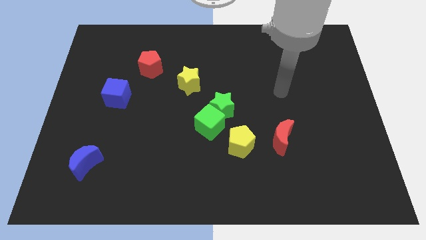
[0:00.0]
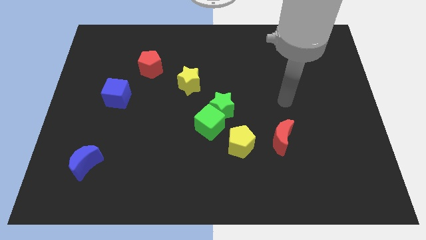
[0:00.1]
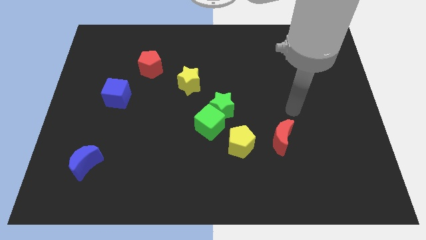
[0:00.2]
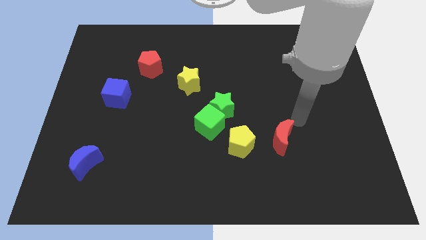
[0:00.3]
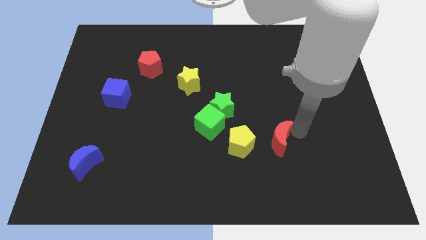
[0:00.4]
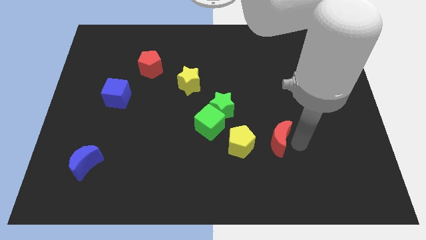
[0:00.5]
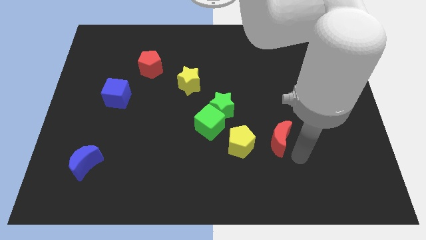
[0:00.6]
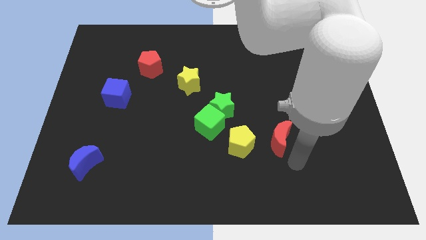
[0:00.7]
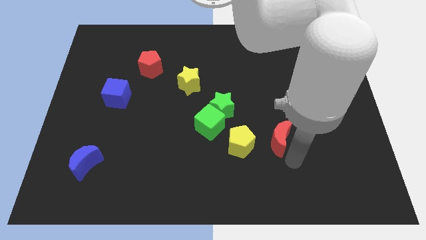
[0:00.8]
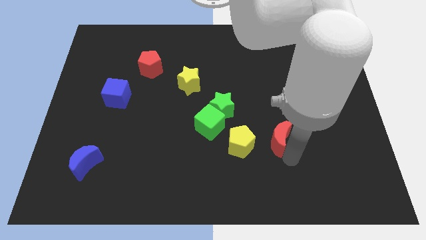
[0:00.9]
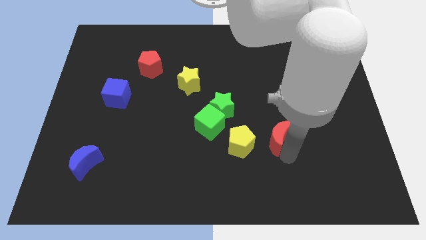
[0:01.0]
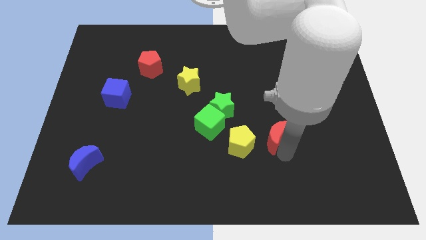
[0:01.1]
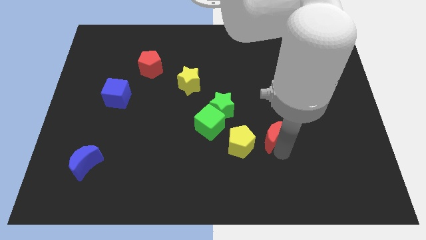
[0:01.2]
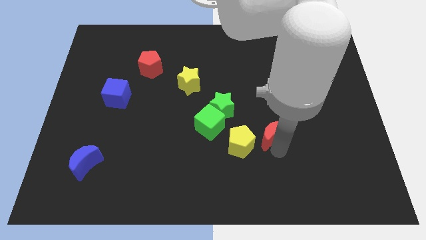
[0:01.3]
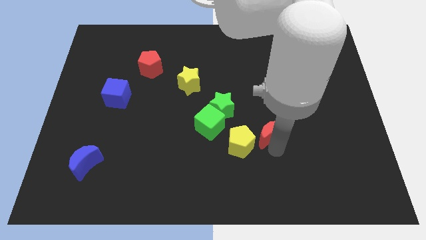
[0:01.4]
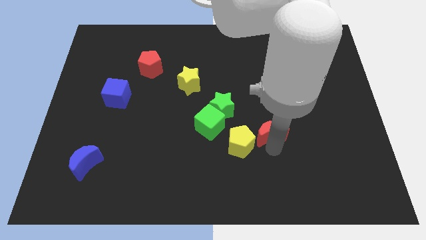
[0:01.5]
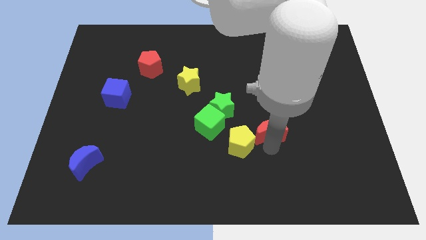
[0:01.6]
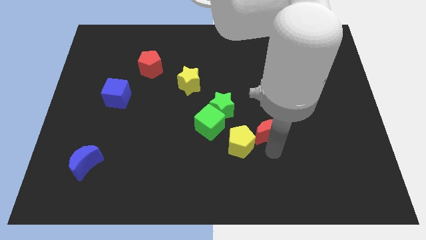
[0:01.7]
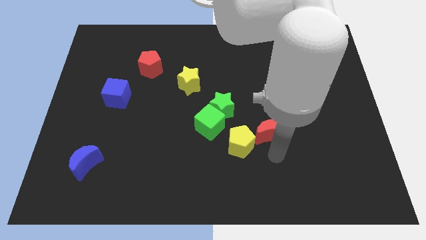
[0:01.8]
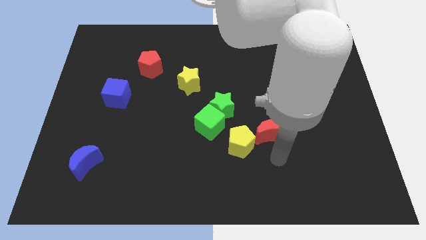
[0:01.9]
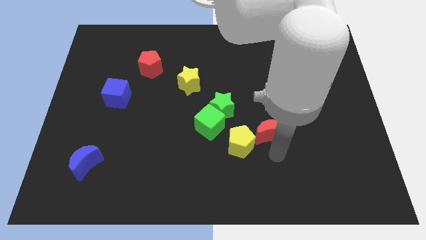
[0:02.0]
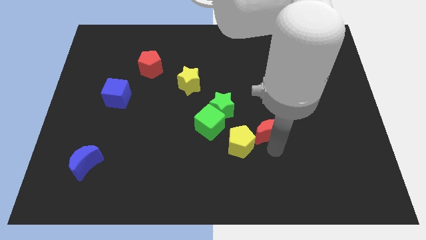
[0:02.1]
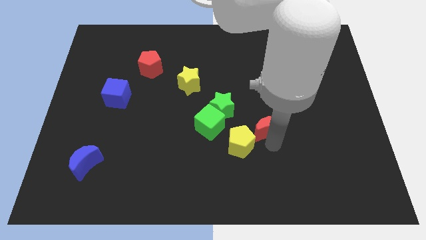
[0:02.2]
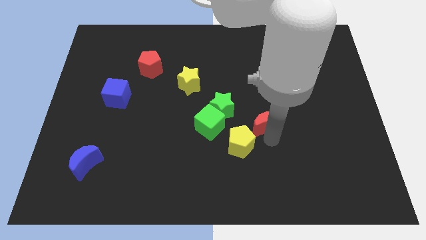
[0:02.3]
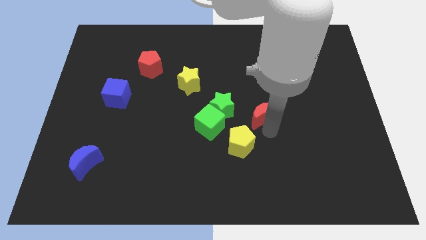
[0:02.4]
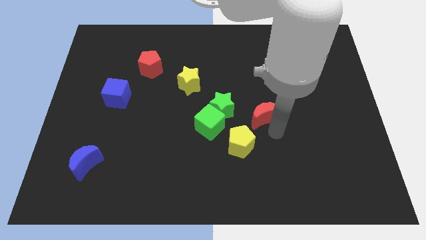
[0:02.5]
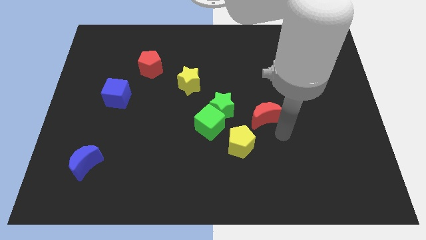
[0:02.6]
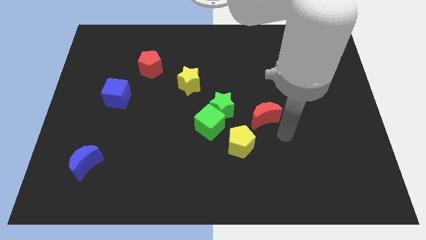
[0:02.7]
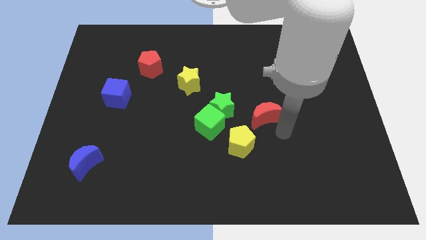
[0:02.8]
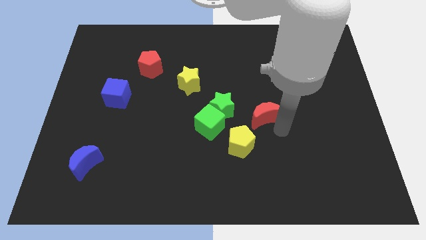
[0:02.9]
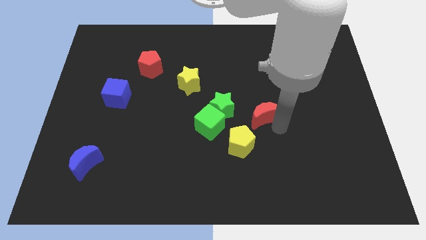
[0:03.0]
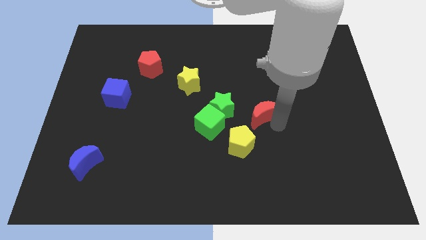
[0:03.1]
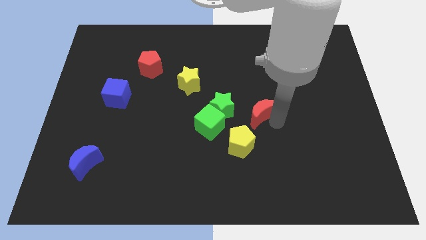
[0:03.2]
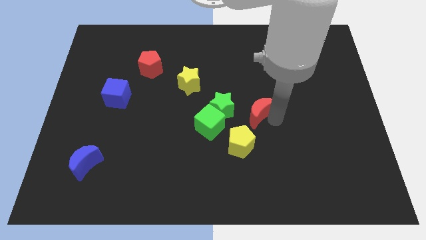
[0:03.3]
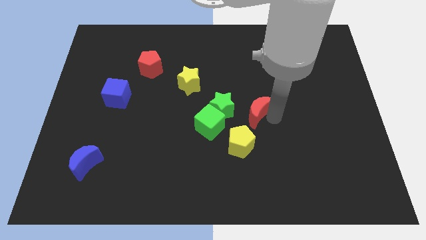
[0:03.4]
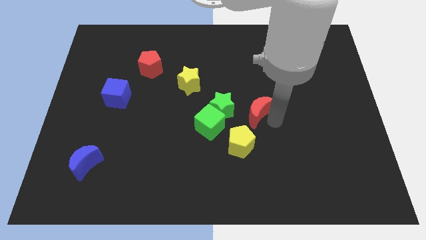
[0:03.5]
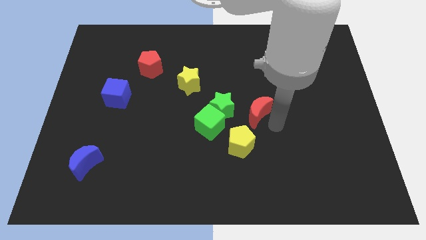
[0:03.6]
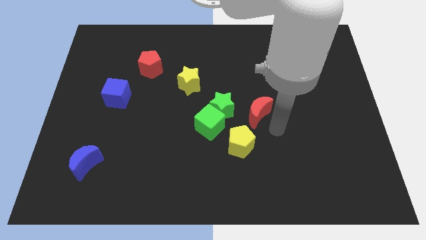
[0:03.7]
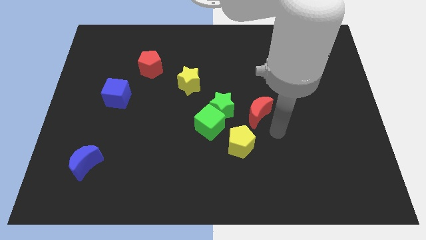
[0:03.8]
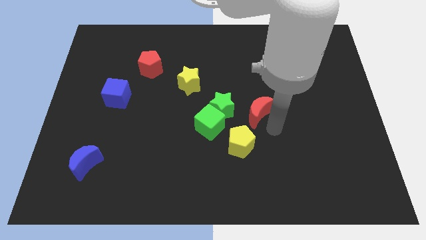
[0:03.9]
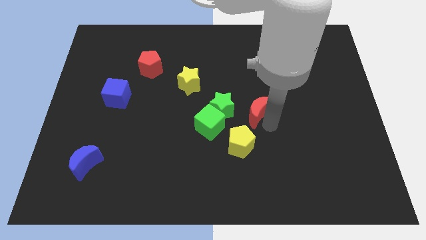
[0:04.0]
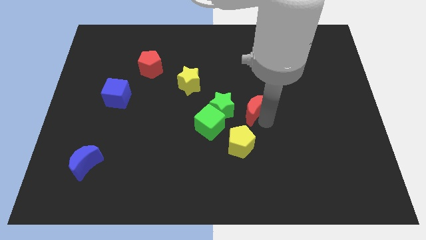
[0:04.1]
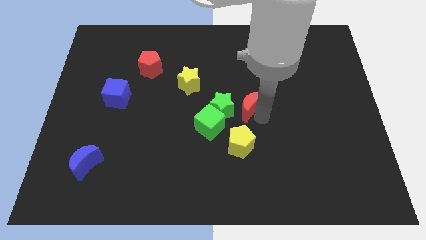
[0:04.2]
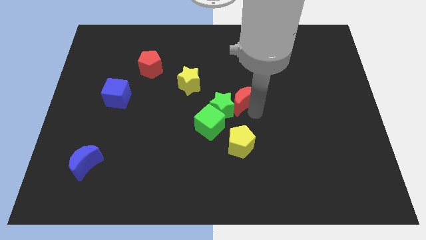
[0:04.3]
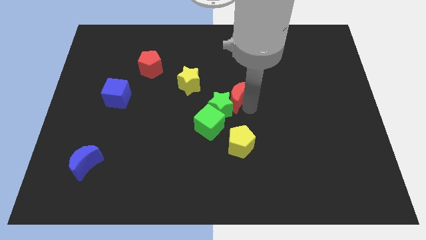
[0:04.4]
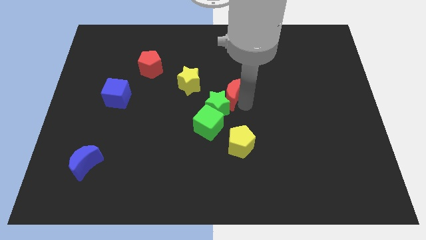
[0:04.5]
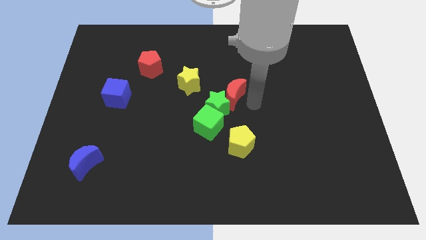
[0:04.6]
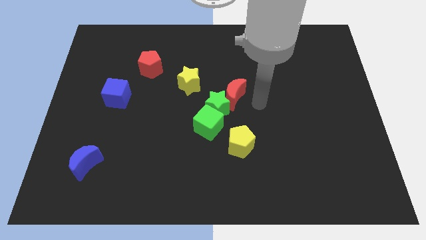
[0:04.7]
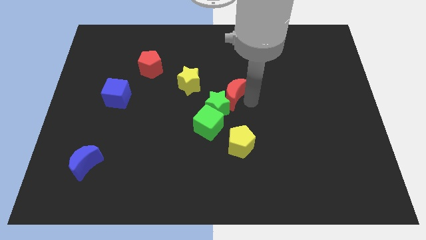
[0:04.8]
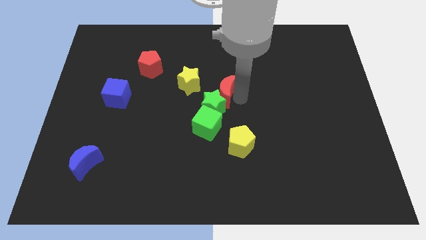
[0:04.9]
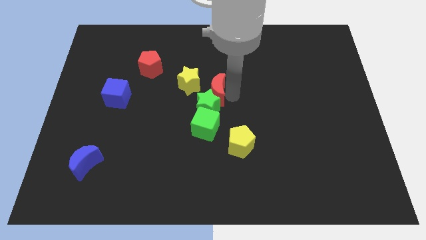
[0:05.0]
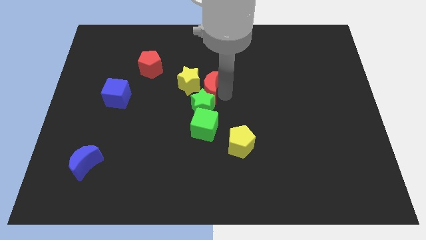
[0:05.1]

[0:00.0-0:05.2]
slide the red moon towards the yellow star

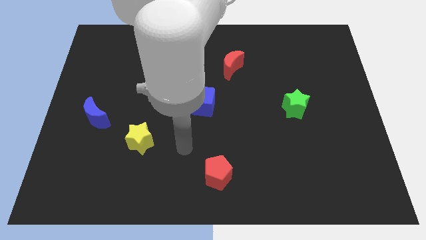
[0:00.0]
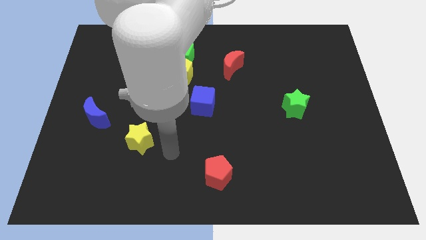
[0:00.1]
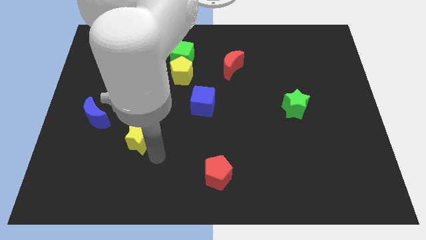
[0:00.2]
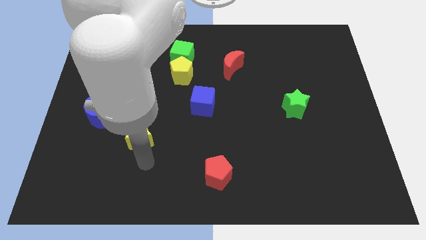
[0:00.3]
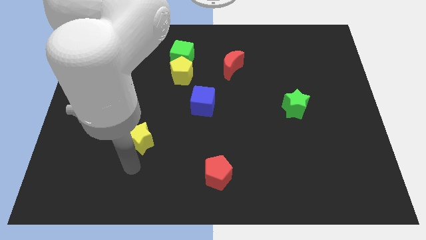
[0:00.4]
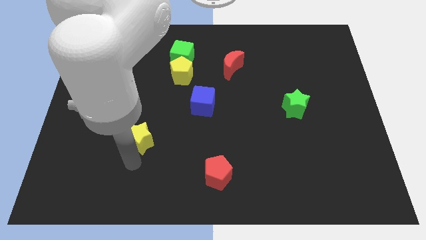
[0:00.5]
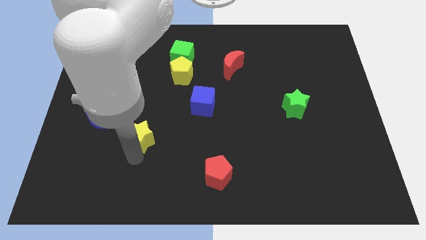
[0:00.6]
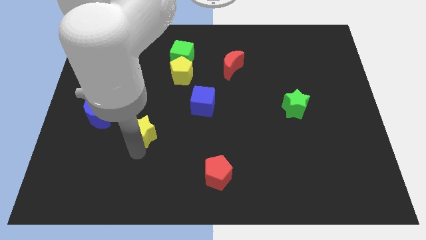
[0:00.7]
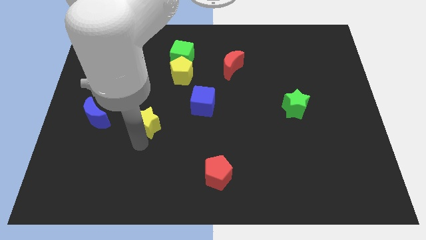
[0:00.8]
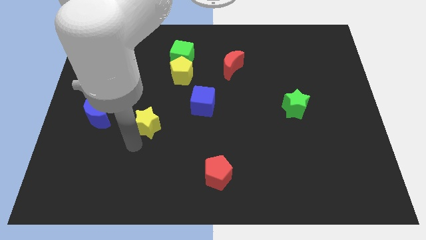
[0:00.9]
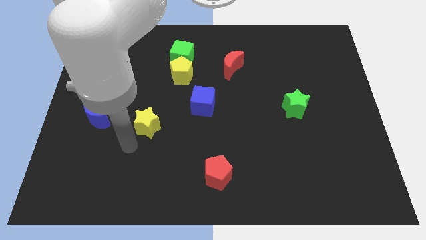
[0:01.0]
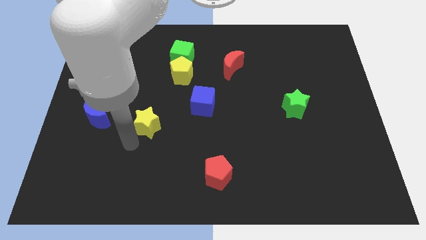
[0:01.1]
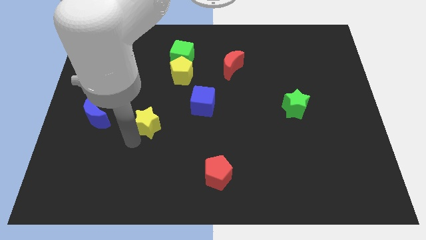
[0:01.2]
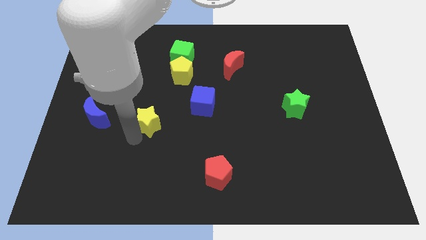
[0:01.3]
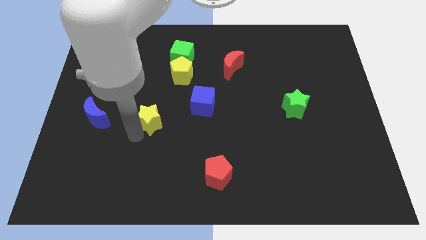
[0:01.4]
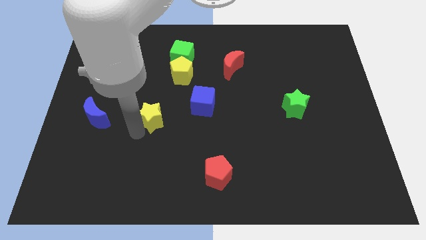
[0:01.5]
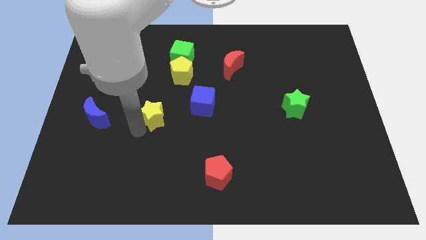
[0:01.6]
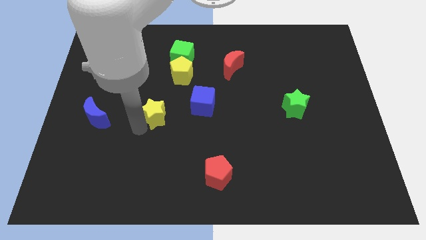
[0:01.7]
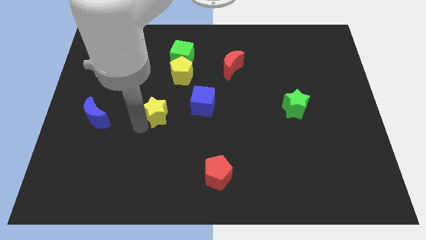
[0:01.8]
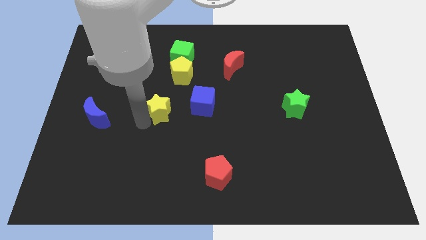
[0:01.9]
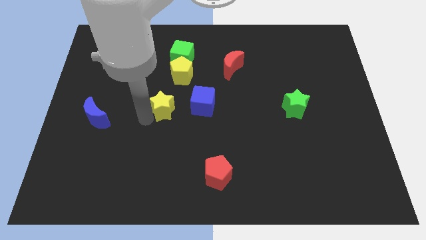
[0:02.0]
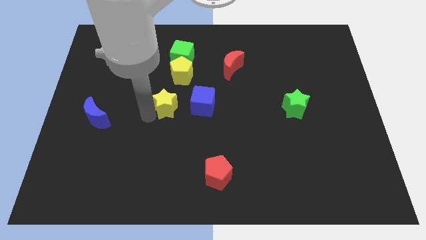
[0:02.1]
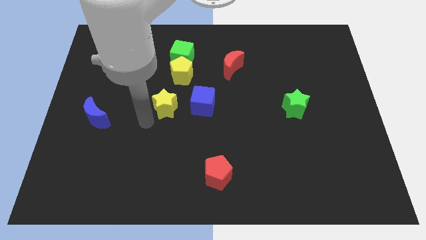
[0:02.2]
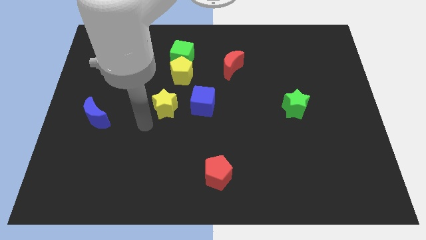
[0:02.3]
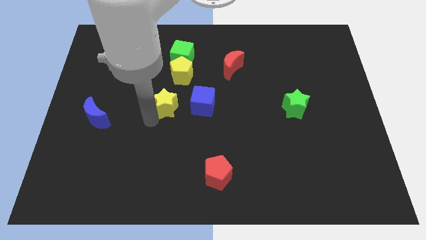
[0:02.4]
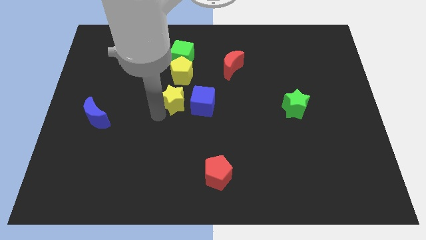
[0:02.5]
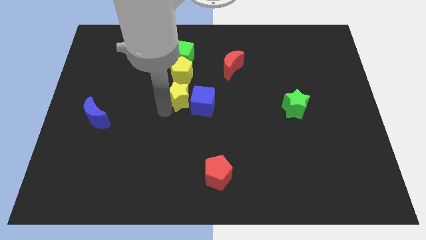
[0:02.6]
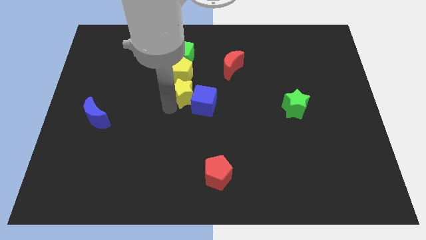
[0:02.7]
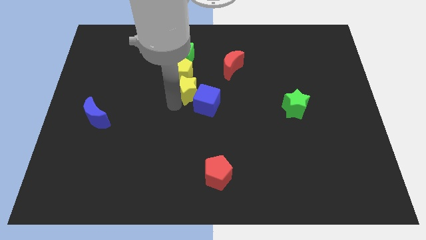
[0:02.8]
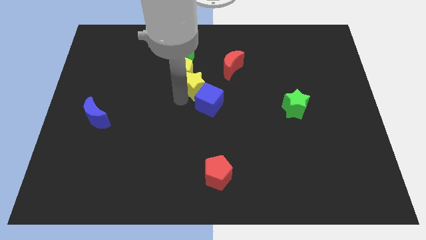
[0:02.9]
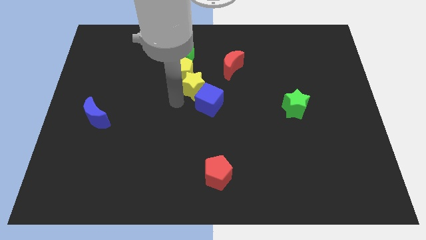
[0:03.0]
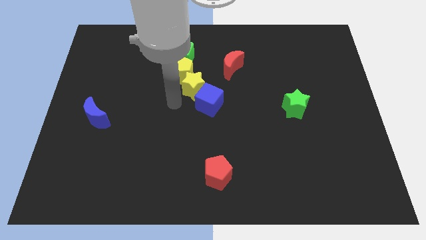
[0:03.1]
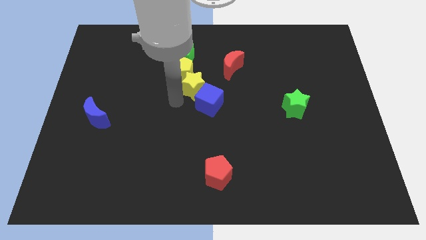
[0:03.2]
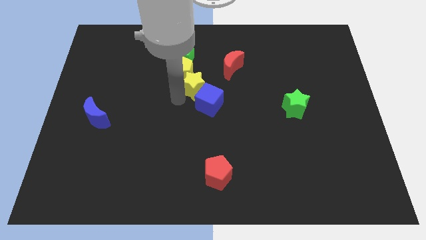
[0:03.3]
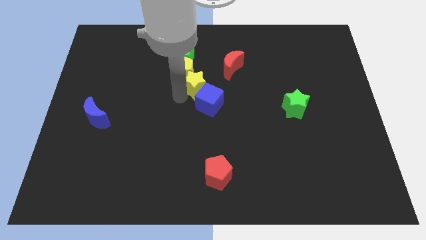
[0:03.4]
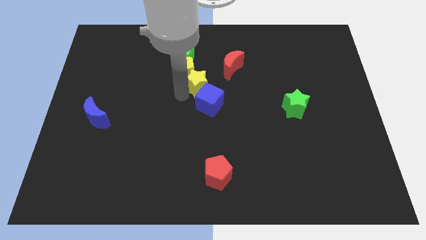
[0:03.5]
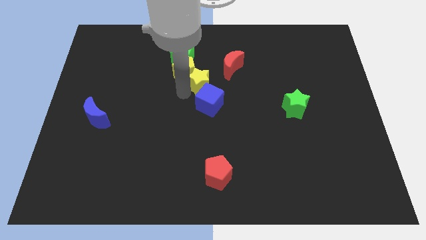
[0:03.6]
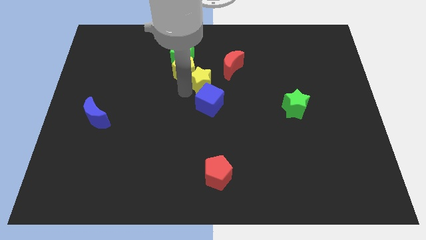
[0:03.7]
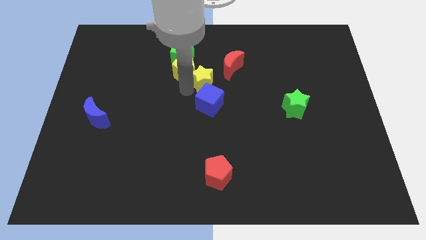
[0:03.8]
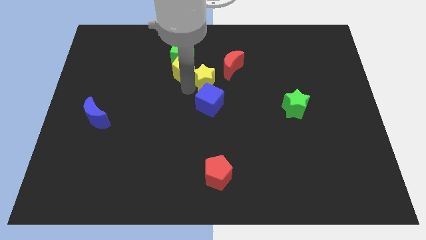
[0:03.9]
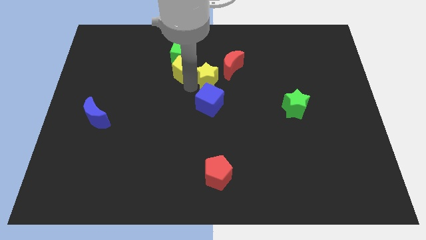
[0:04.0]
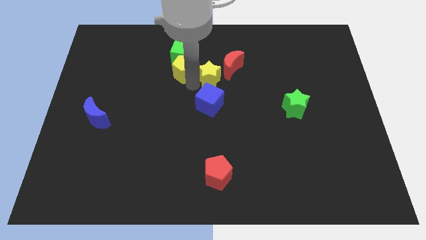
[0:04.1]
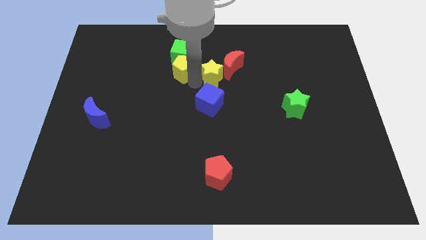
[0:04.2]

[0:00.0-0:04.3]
slide the yellow star towards the red moon
